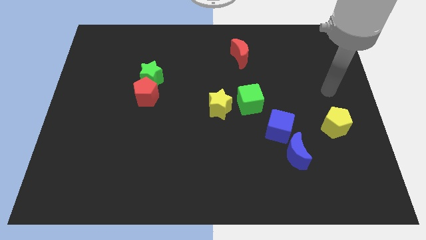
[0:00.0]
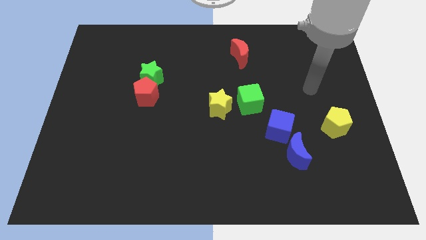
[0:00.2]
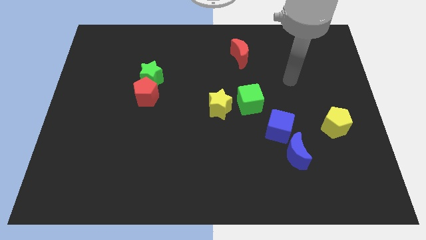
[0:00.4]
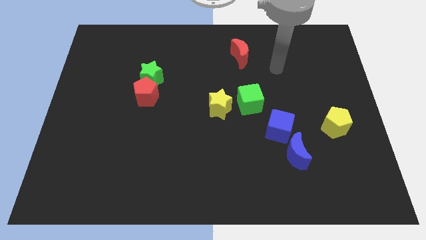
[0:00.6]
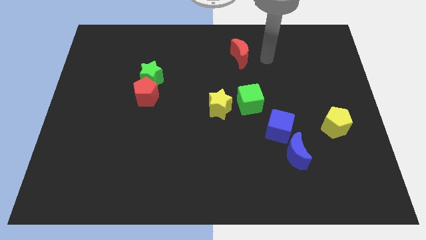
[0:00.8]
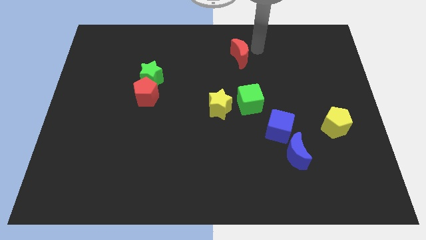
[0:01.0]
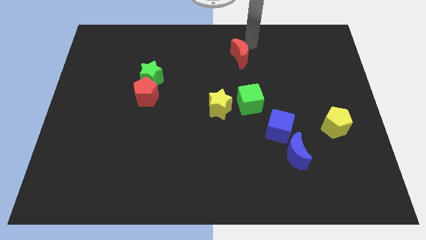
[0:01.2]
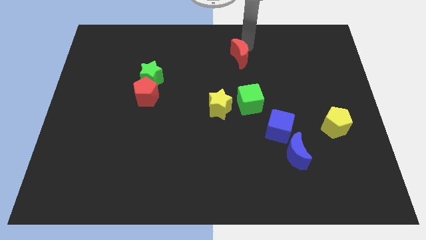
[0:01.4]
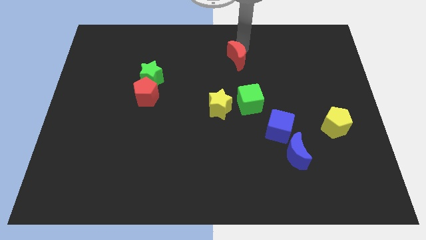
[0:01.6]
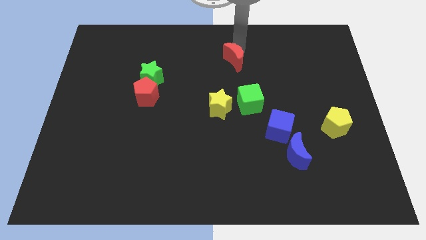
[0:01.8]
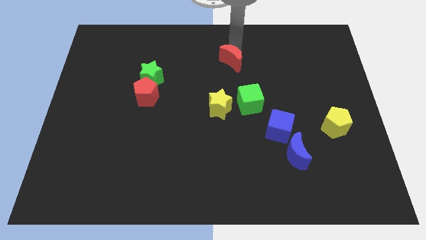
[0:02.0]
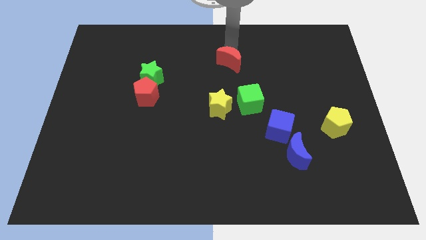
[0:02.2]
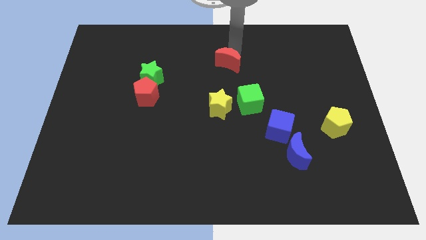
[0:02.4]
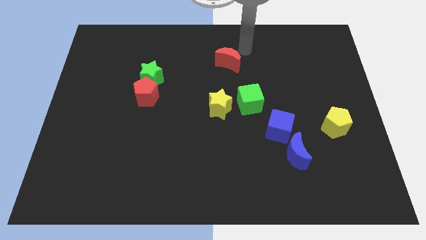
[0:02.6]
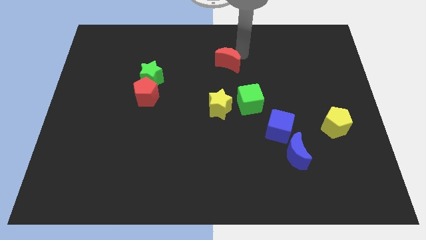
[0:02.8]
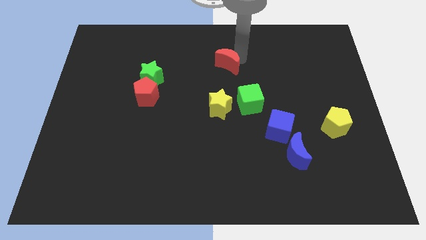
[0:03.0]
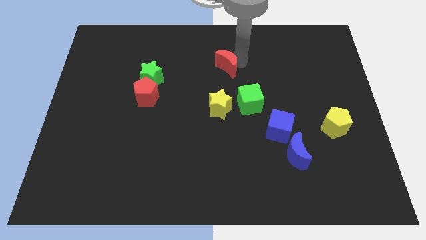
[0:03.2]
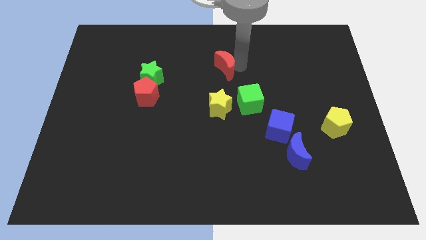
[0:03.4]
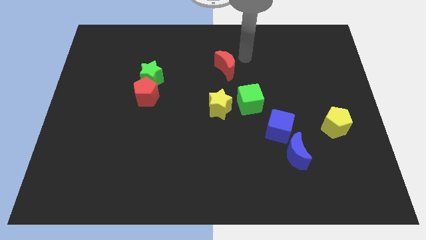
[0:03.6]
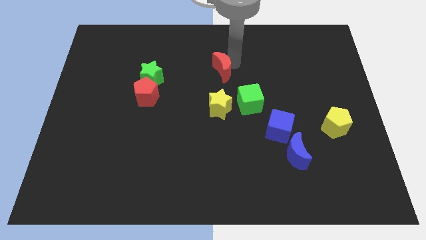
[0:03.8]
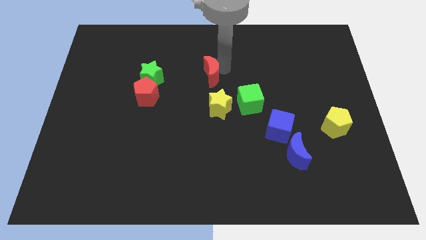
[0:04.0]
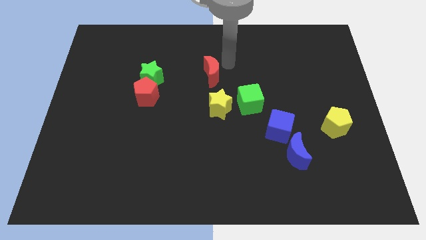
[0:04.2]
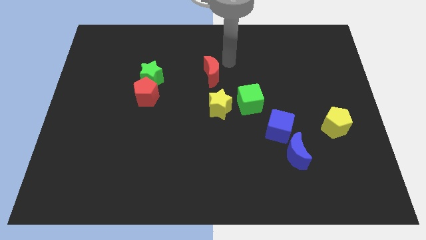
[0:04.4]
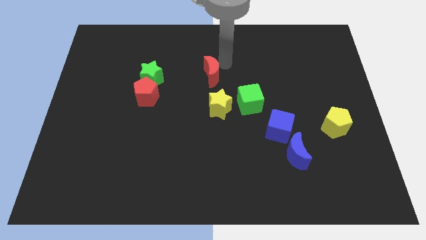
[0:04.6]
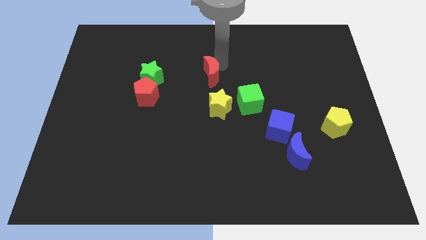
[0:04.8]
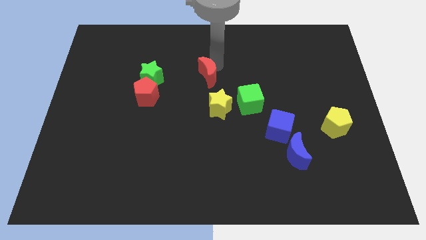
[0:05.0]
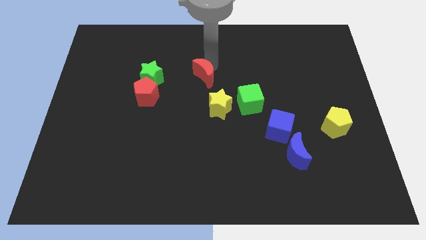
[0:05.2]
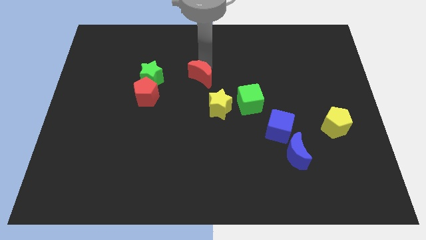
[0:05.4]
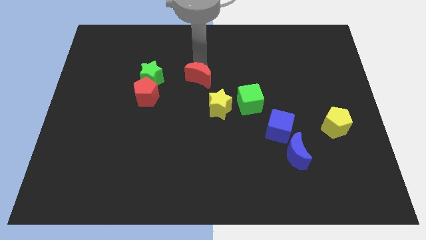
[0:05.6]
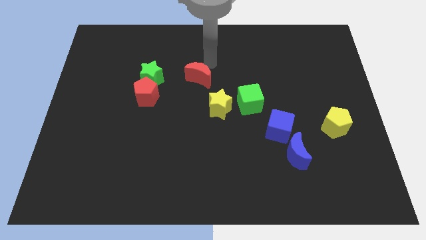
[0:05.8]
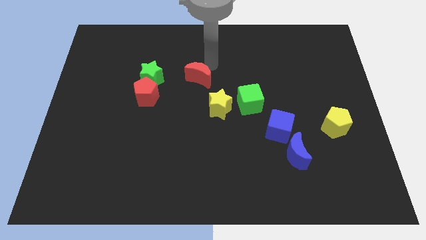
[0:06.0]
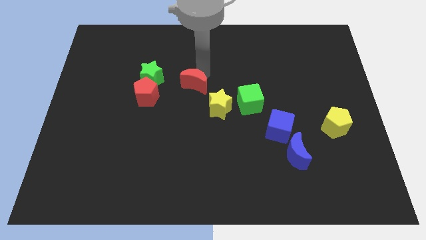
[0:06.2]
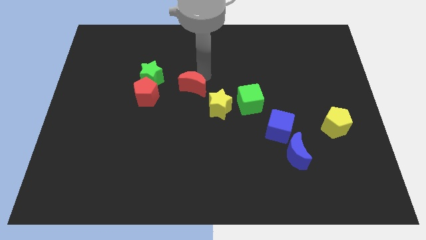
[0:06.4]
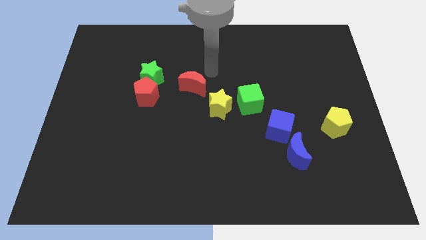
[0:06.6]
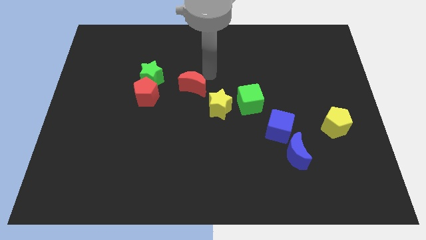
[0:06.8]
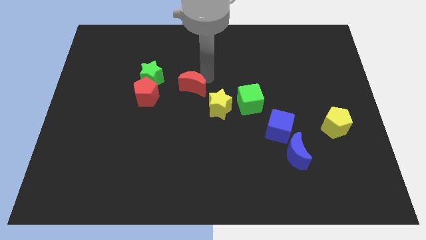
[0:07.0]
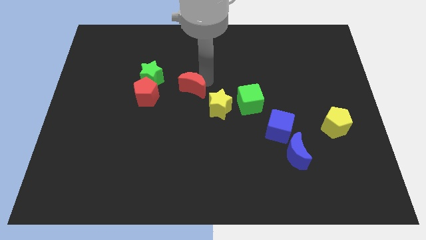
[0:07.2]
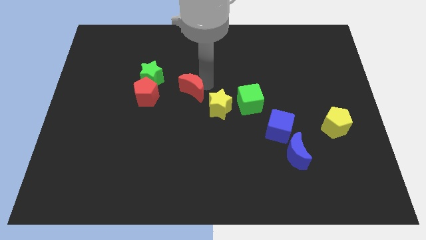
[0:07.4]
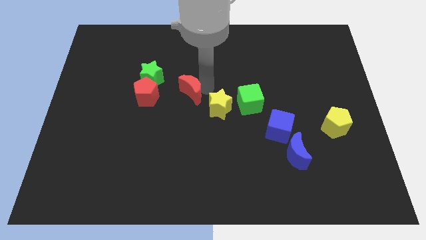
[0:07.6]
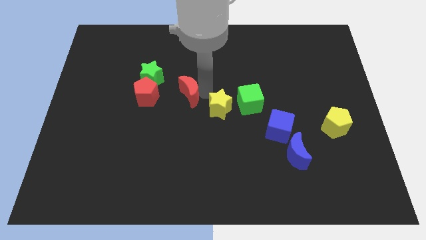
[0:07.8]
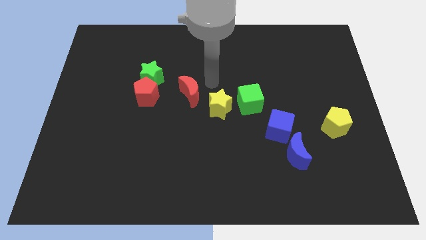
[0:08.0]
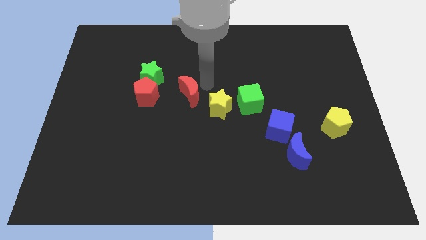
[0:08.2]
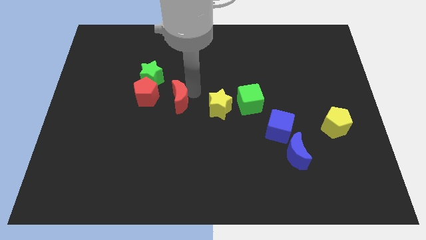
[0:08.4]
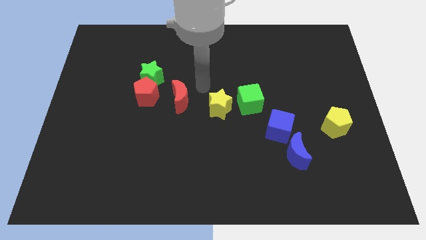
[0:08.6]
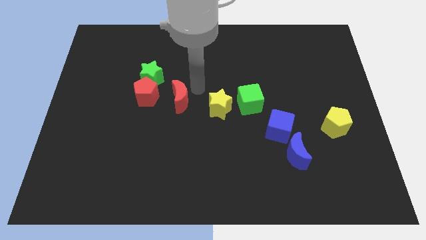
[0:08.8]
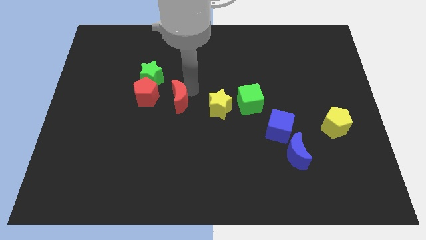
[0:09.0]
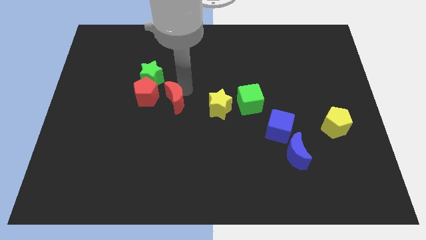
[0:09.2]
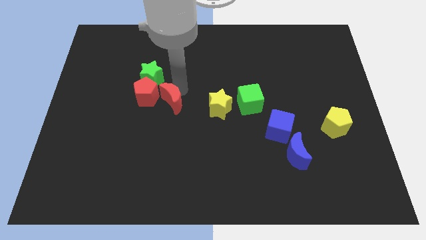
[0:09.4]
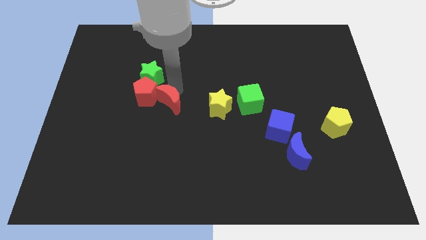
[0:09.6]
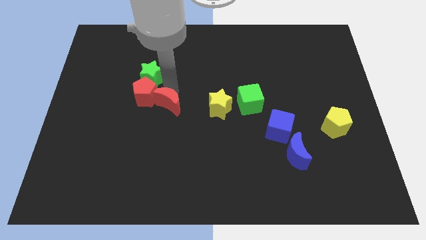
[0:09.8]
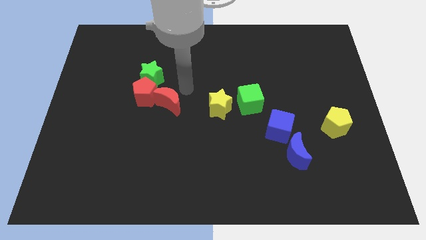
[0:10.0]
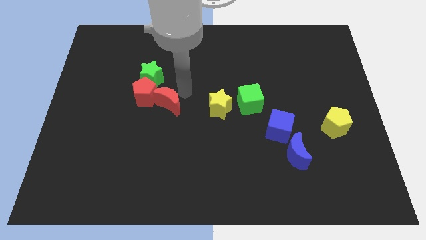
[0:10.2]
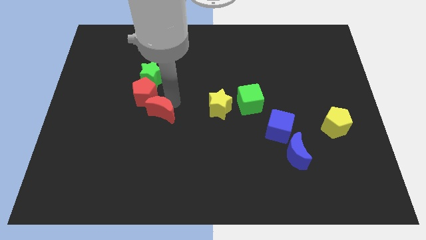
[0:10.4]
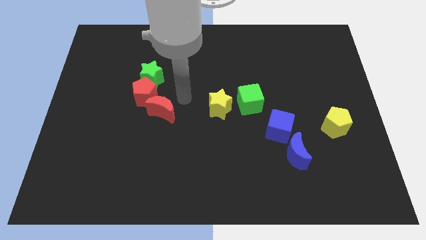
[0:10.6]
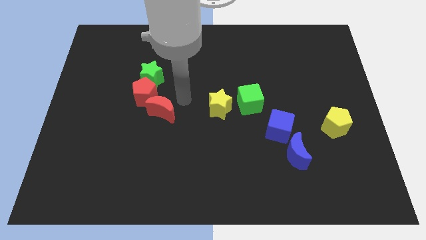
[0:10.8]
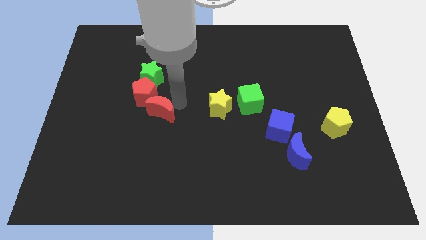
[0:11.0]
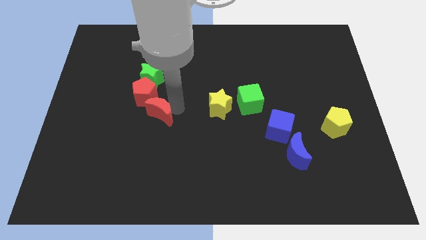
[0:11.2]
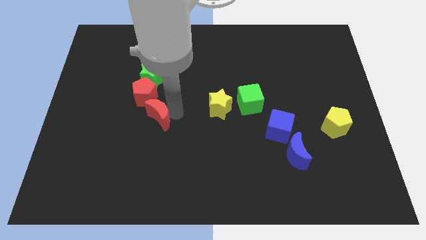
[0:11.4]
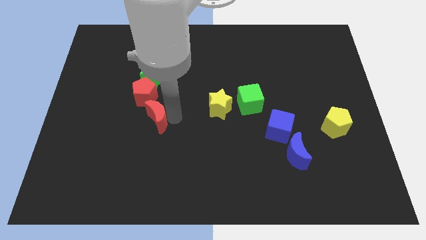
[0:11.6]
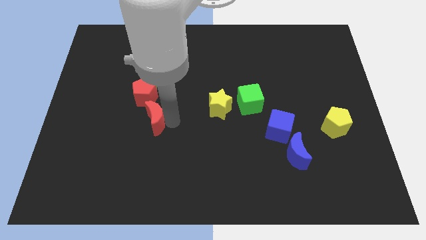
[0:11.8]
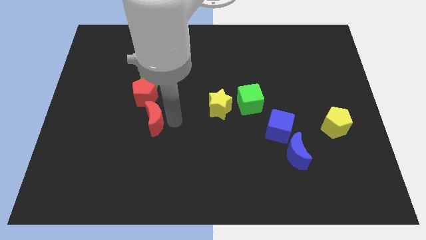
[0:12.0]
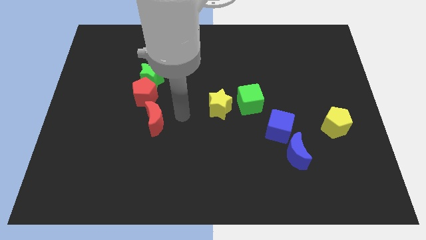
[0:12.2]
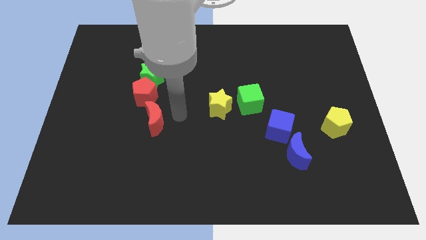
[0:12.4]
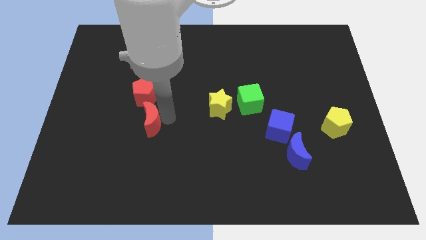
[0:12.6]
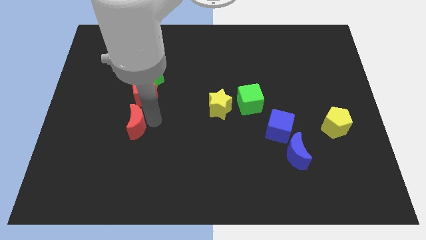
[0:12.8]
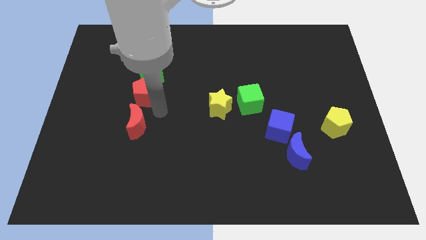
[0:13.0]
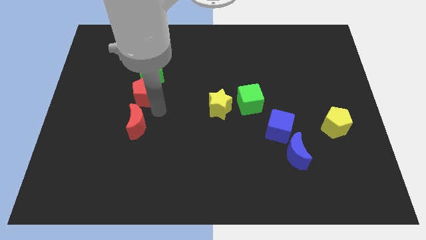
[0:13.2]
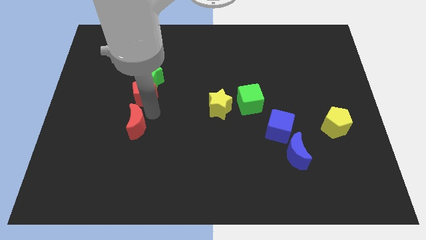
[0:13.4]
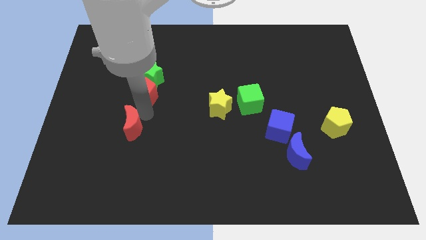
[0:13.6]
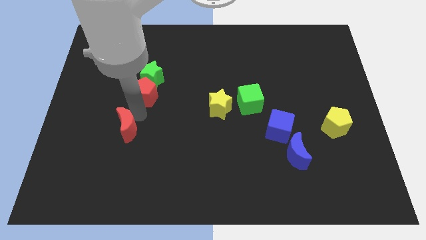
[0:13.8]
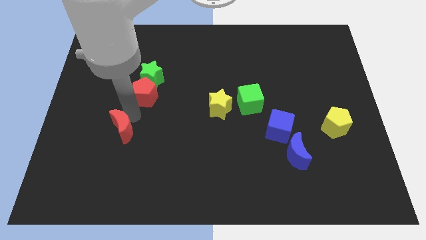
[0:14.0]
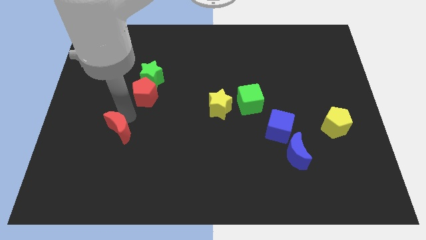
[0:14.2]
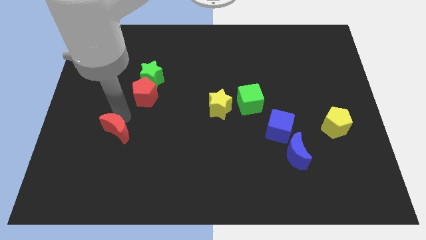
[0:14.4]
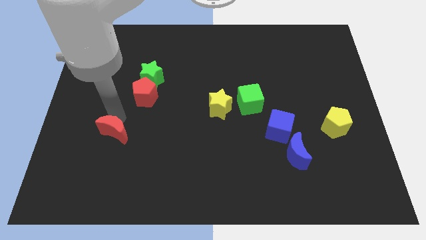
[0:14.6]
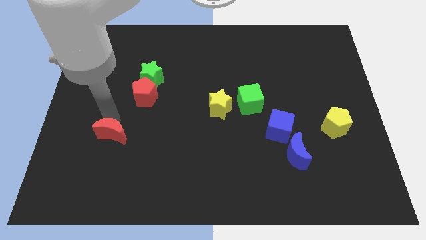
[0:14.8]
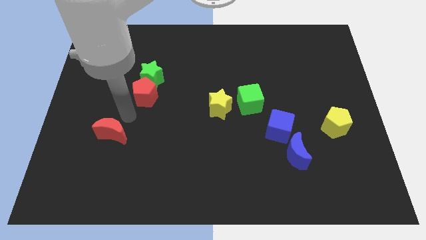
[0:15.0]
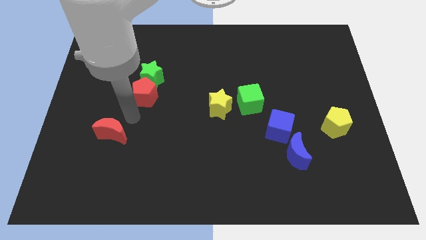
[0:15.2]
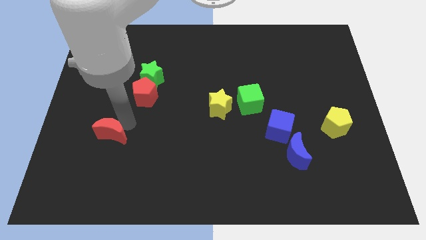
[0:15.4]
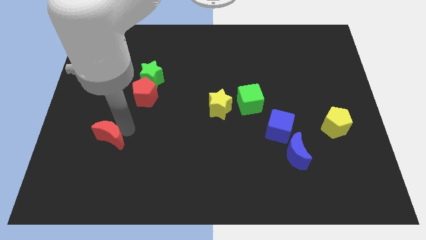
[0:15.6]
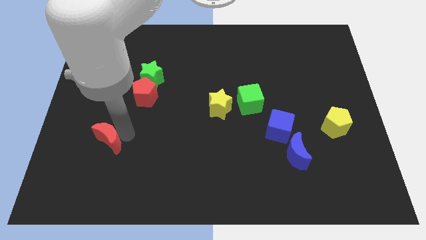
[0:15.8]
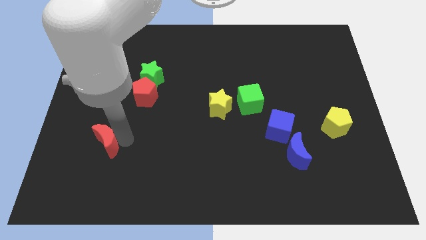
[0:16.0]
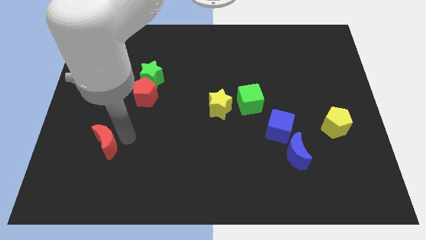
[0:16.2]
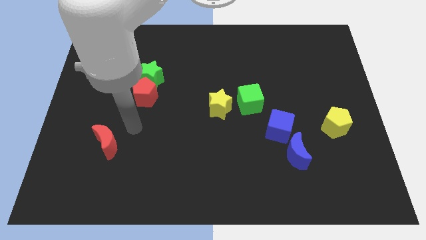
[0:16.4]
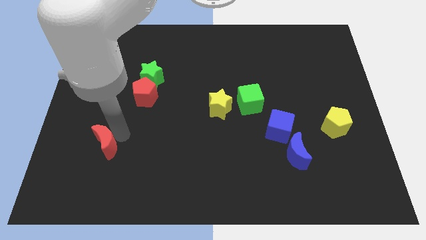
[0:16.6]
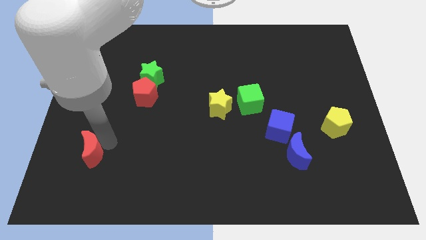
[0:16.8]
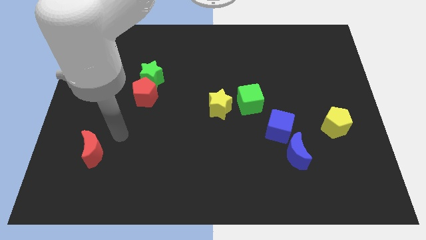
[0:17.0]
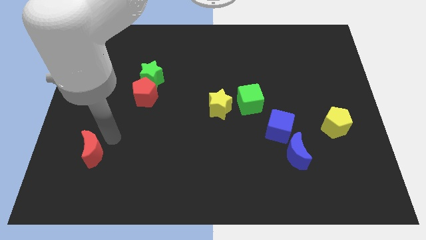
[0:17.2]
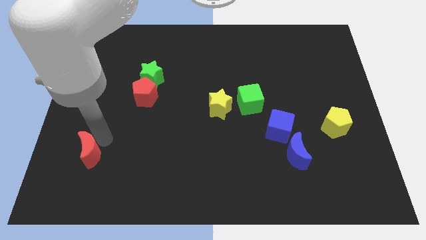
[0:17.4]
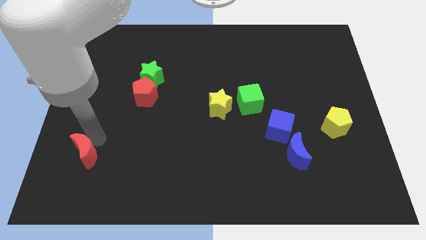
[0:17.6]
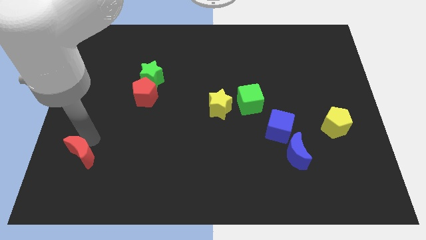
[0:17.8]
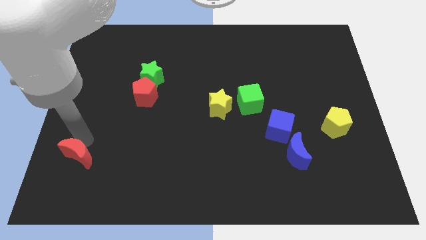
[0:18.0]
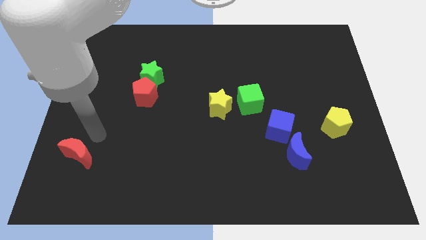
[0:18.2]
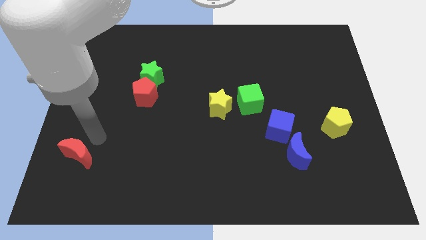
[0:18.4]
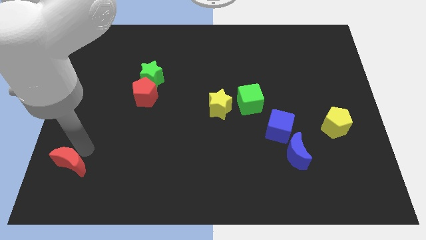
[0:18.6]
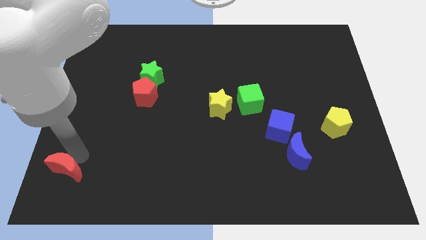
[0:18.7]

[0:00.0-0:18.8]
slide the red moon to the bottom left
